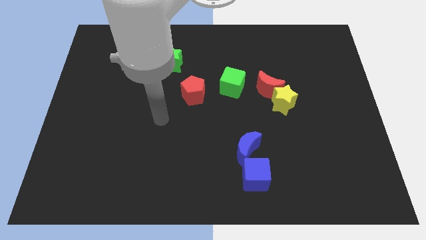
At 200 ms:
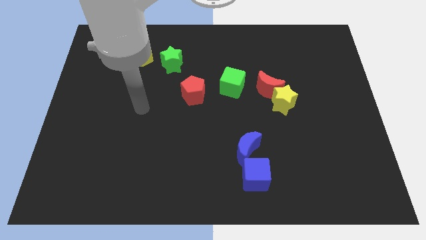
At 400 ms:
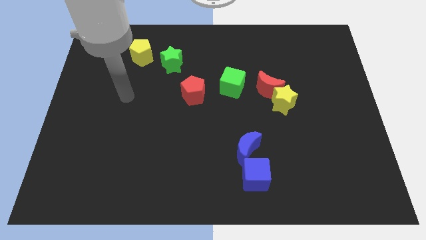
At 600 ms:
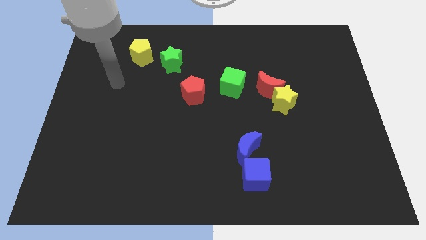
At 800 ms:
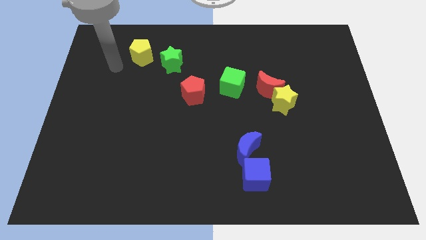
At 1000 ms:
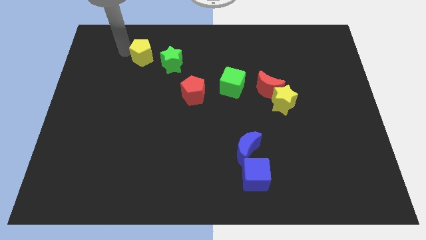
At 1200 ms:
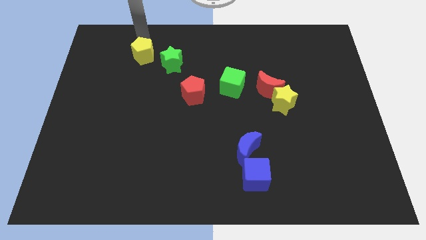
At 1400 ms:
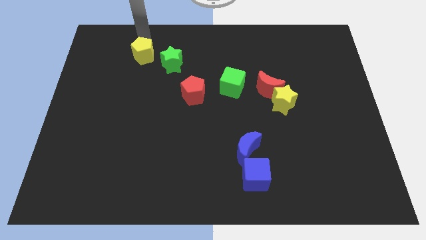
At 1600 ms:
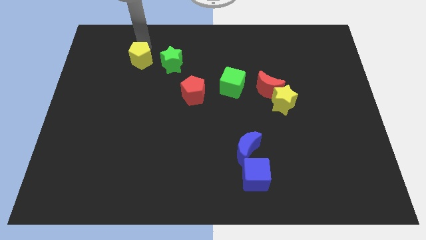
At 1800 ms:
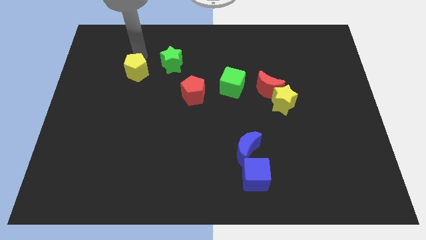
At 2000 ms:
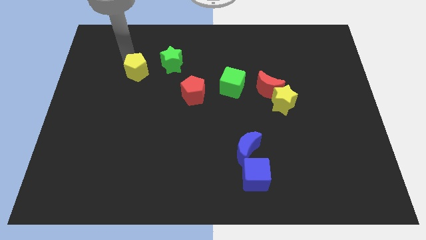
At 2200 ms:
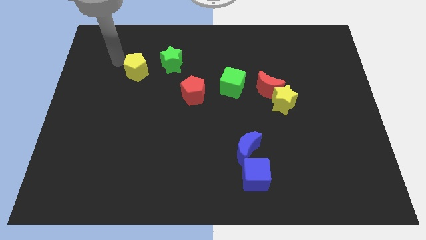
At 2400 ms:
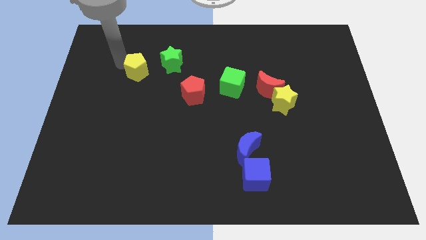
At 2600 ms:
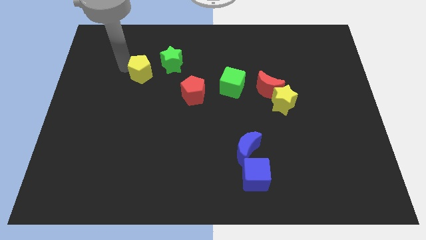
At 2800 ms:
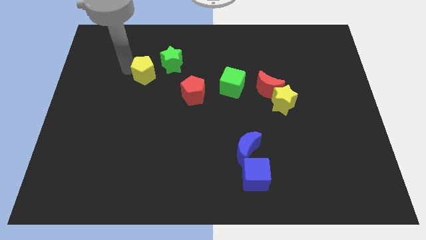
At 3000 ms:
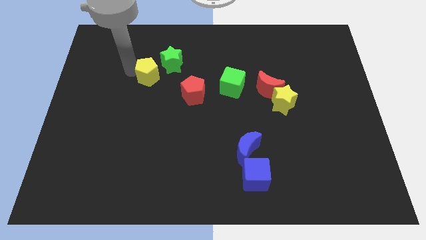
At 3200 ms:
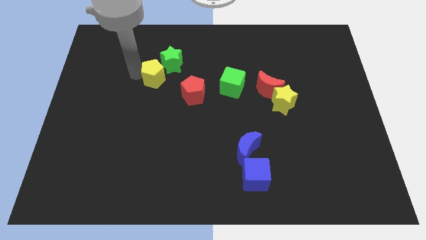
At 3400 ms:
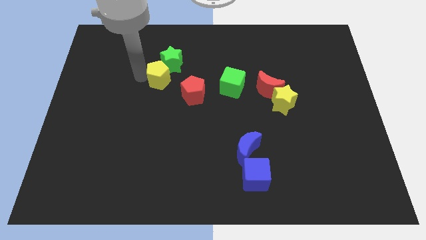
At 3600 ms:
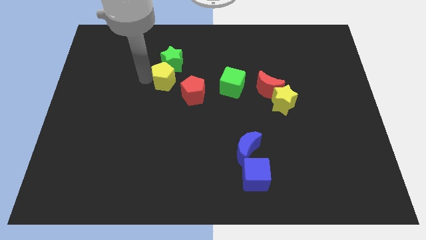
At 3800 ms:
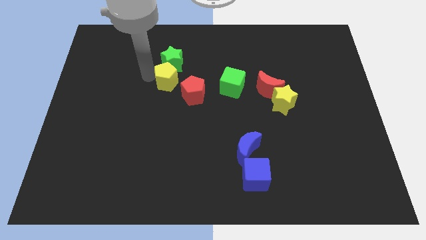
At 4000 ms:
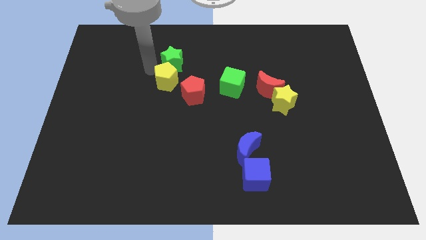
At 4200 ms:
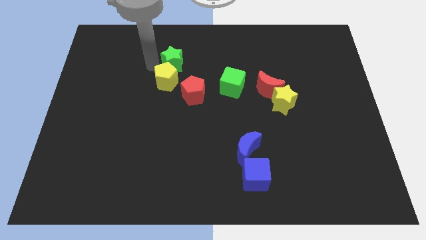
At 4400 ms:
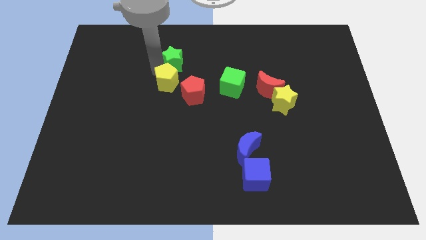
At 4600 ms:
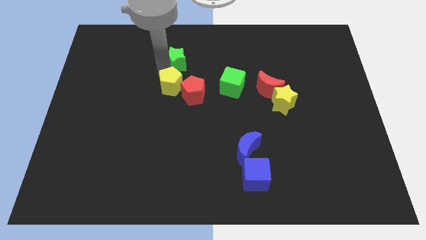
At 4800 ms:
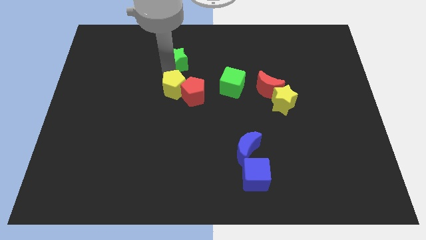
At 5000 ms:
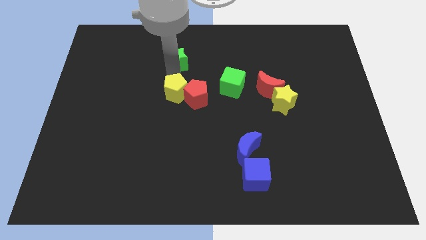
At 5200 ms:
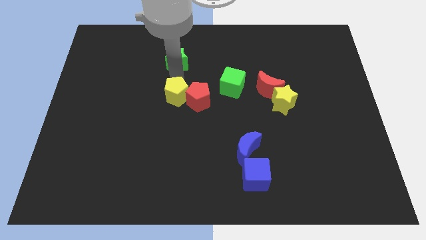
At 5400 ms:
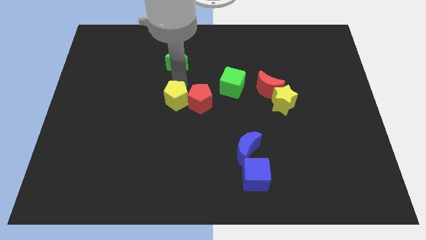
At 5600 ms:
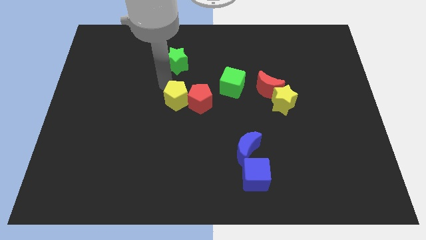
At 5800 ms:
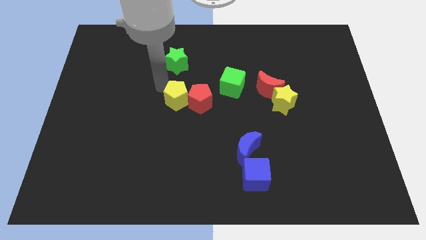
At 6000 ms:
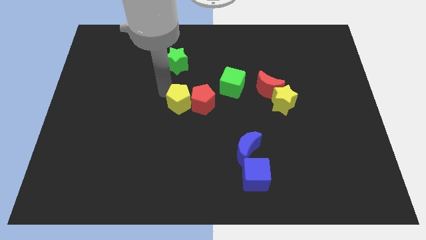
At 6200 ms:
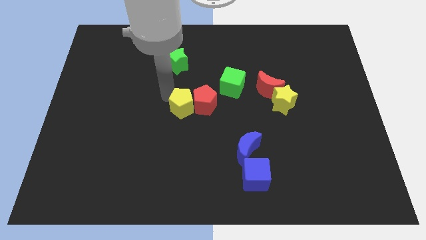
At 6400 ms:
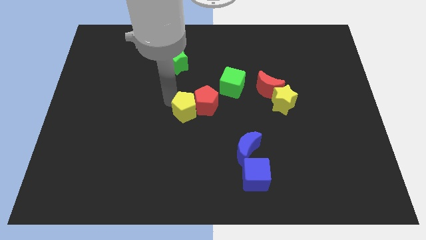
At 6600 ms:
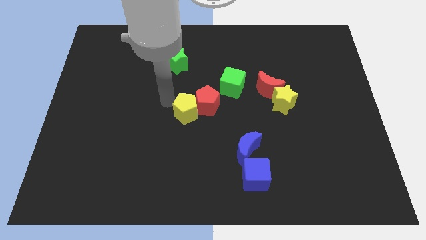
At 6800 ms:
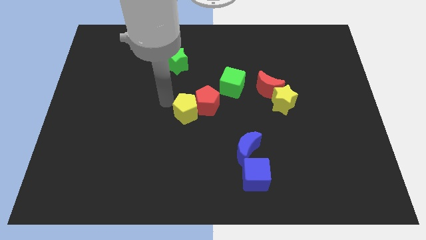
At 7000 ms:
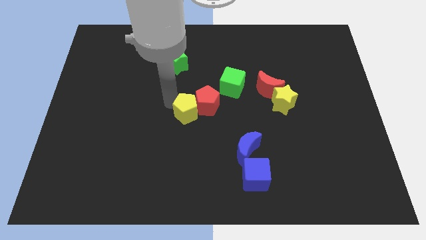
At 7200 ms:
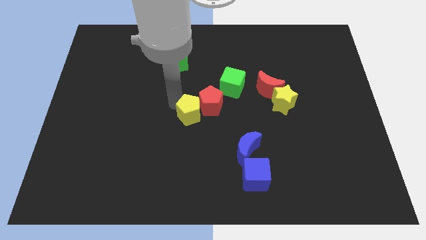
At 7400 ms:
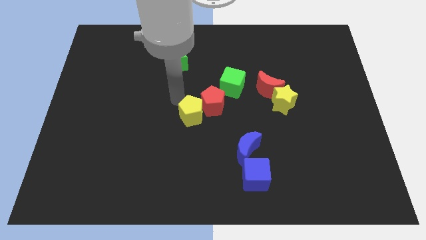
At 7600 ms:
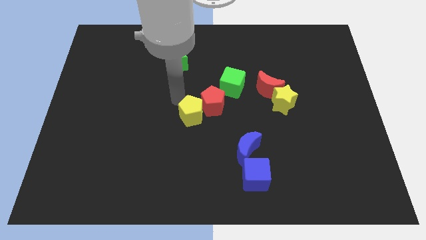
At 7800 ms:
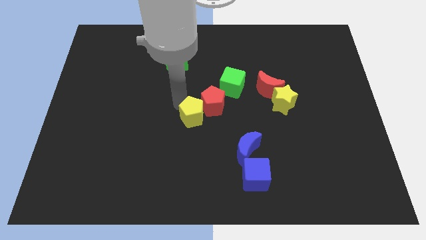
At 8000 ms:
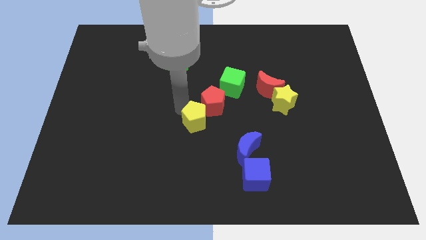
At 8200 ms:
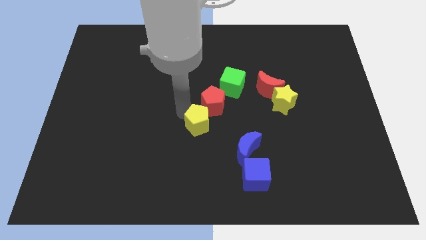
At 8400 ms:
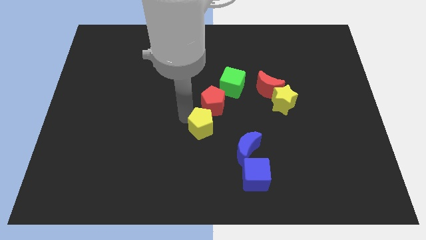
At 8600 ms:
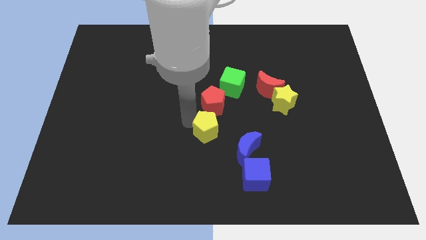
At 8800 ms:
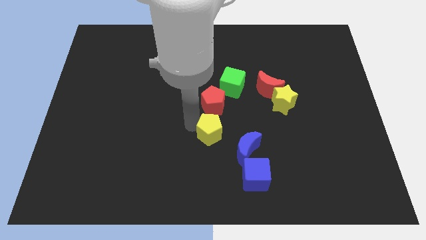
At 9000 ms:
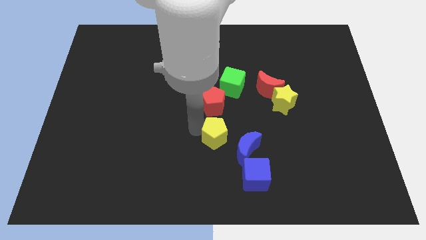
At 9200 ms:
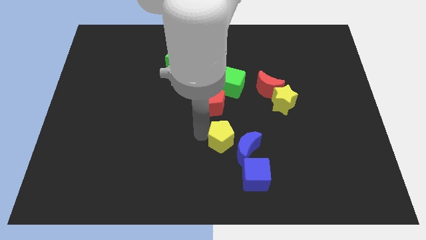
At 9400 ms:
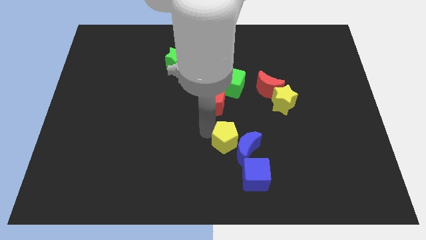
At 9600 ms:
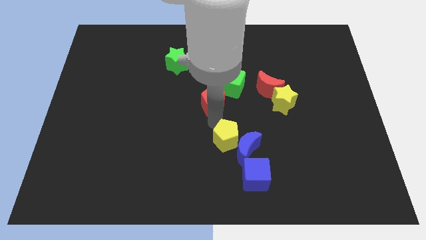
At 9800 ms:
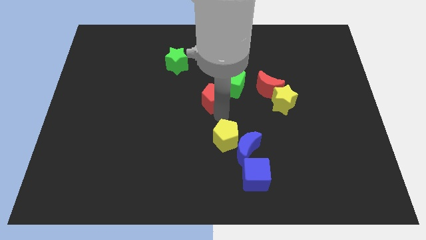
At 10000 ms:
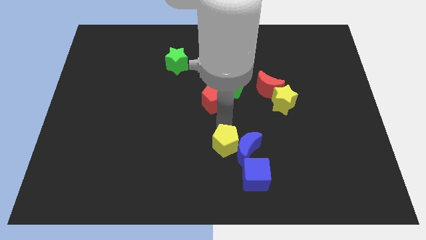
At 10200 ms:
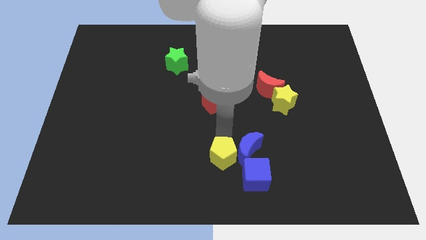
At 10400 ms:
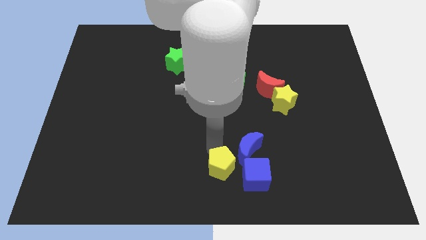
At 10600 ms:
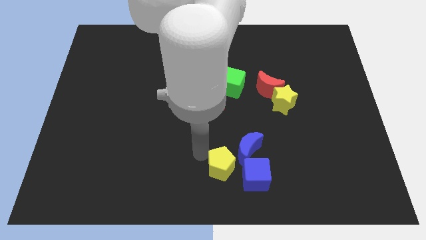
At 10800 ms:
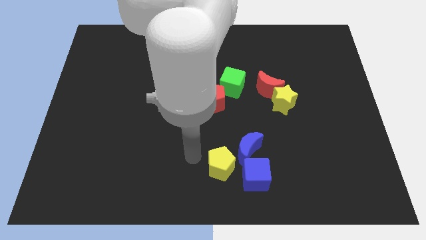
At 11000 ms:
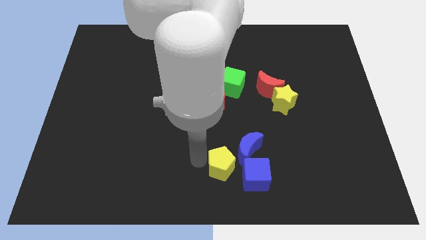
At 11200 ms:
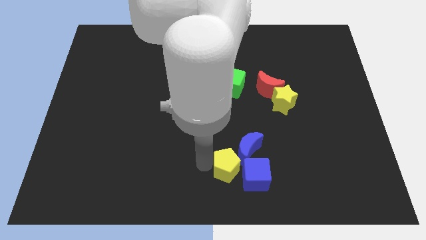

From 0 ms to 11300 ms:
slide the yellow pentagon towards the blue cube

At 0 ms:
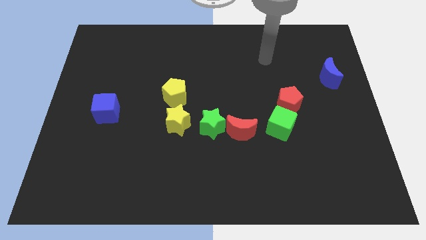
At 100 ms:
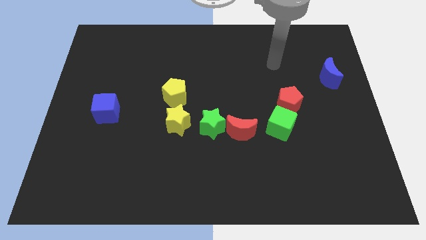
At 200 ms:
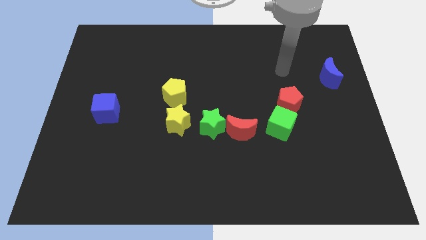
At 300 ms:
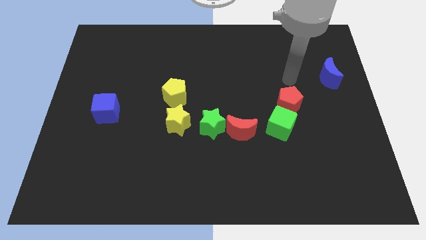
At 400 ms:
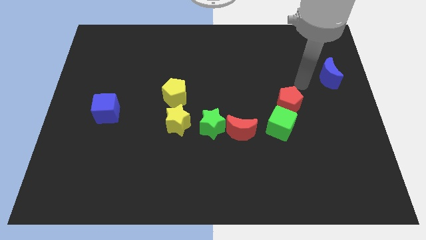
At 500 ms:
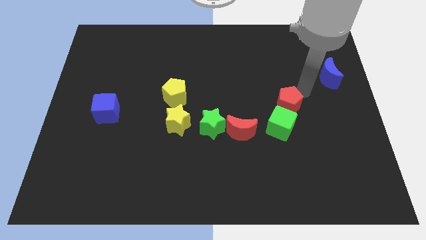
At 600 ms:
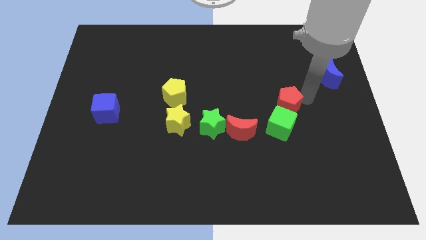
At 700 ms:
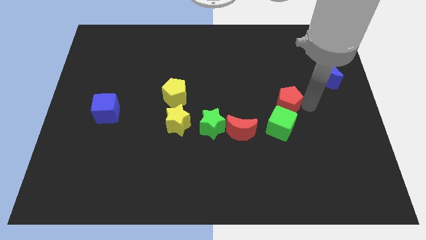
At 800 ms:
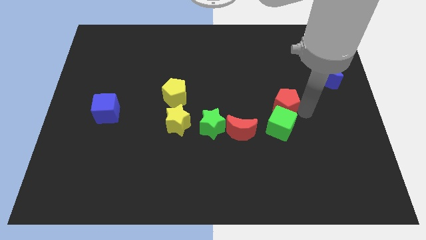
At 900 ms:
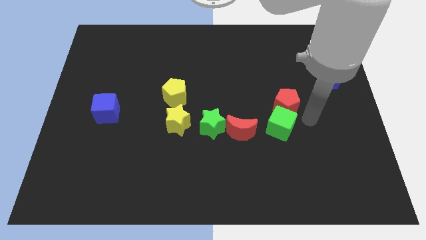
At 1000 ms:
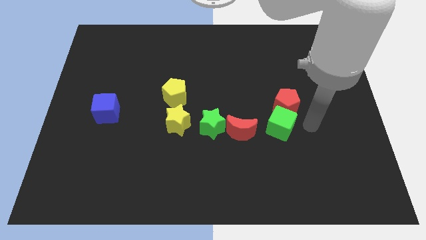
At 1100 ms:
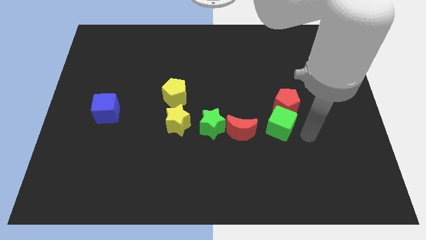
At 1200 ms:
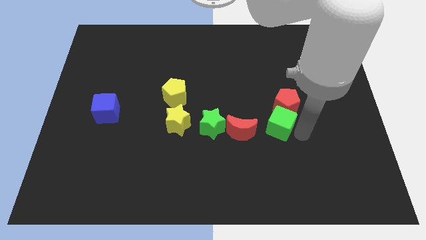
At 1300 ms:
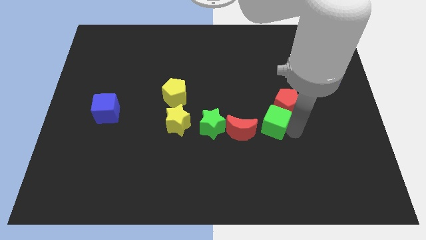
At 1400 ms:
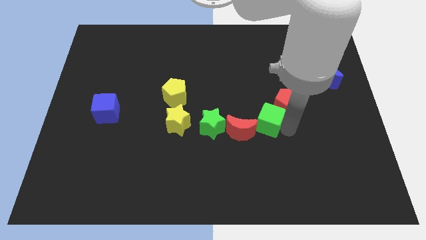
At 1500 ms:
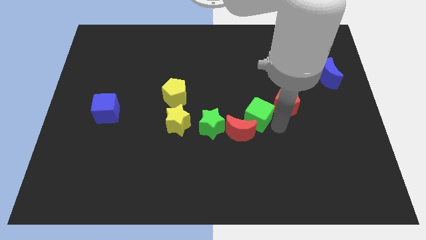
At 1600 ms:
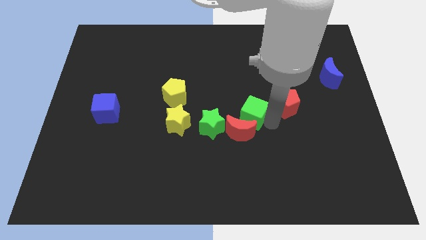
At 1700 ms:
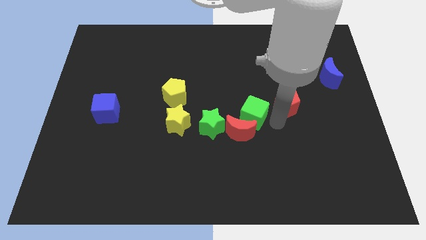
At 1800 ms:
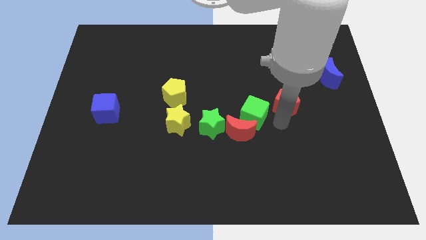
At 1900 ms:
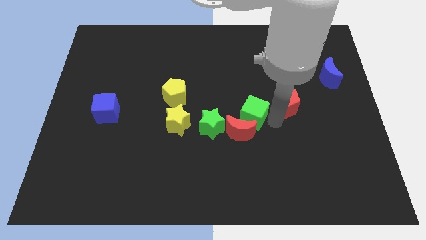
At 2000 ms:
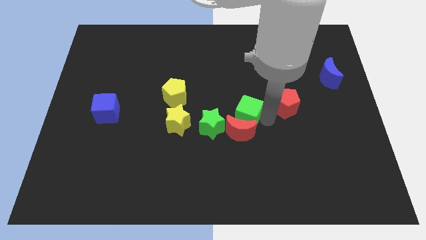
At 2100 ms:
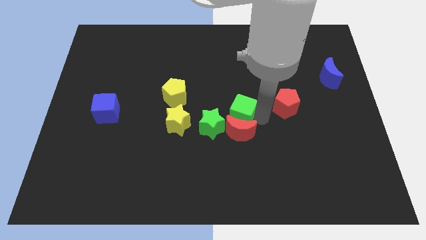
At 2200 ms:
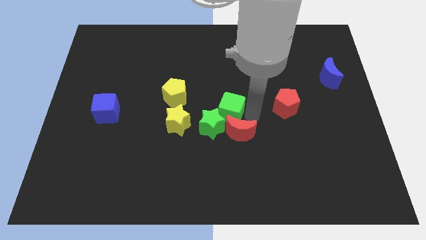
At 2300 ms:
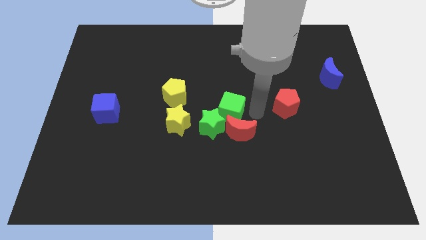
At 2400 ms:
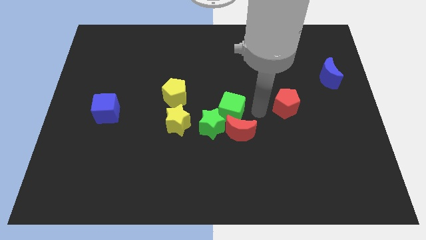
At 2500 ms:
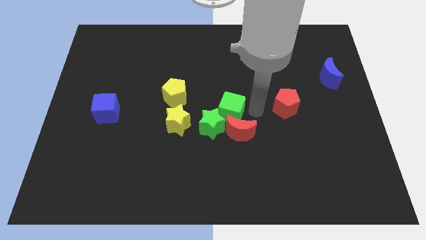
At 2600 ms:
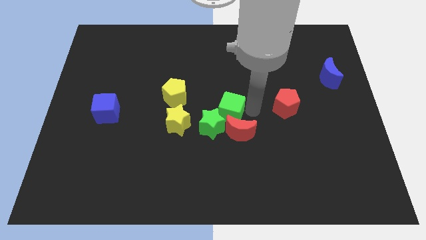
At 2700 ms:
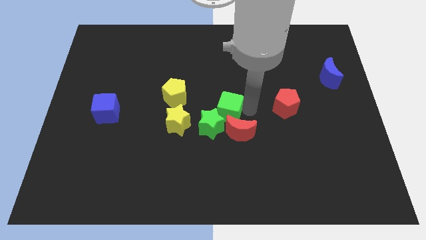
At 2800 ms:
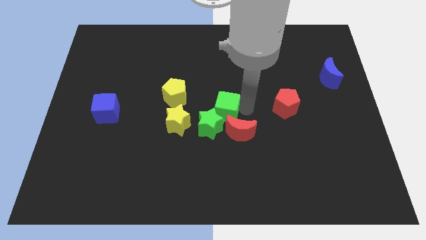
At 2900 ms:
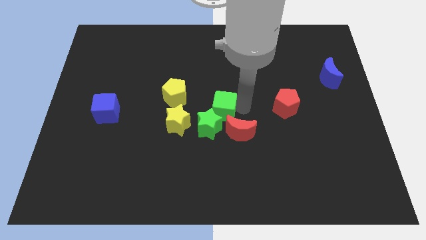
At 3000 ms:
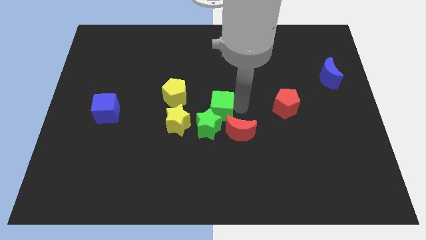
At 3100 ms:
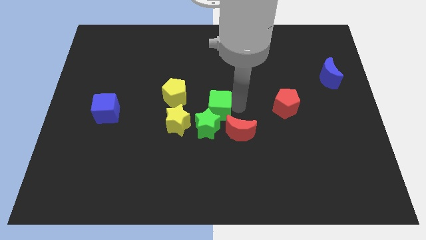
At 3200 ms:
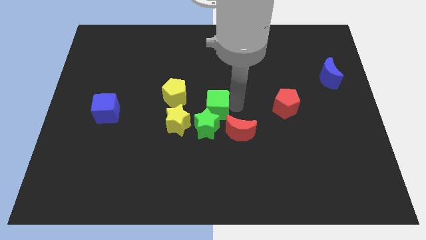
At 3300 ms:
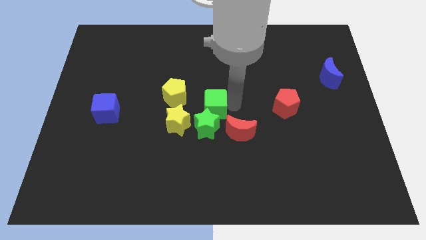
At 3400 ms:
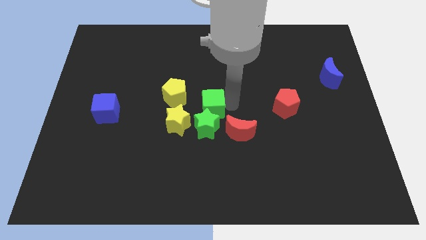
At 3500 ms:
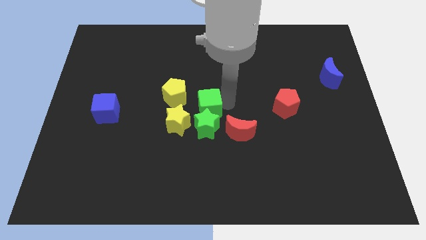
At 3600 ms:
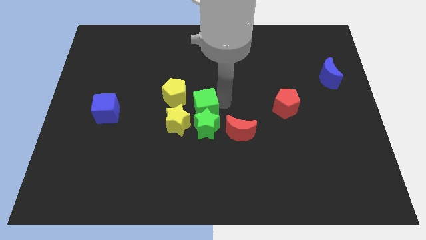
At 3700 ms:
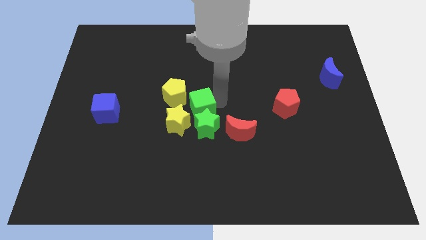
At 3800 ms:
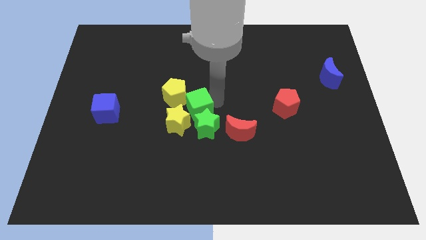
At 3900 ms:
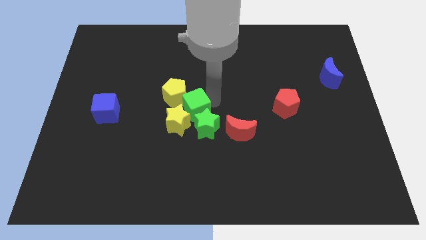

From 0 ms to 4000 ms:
put the green cube to the yellow star
